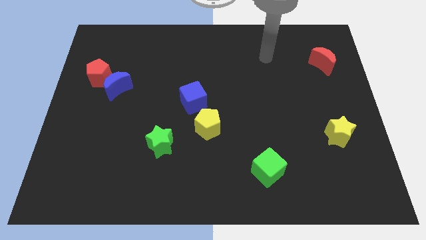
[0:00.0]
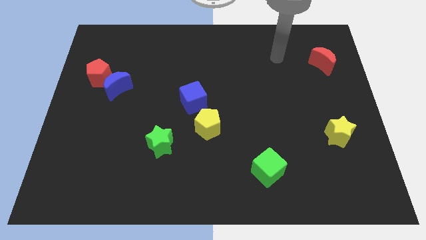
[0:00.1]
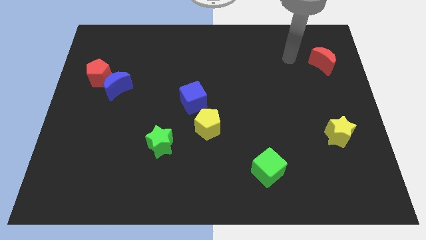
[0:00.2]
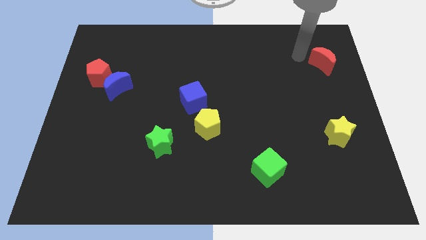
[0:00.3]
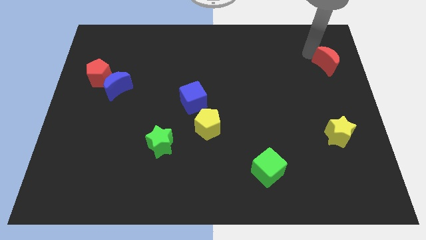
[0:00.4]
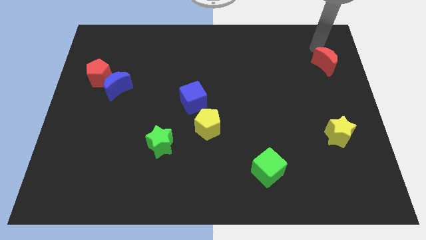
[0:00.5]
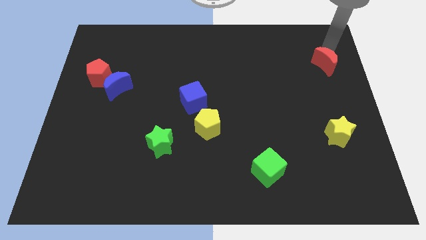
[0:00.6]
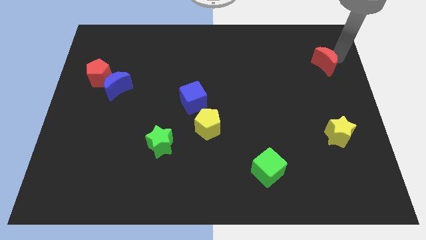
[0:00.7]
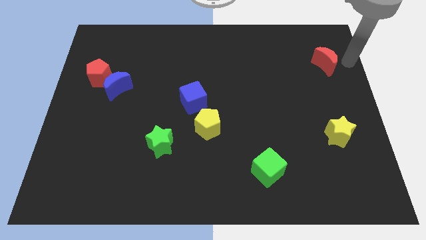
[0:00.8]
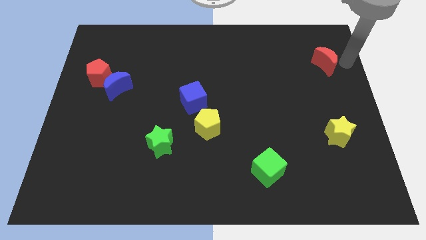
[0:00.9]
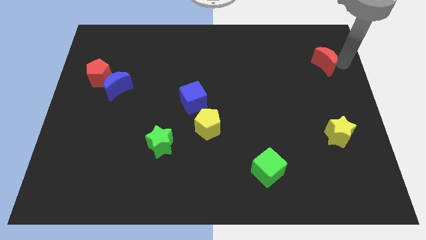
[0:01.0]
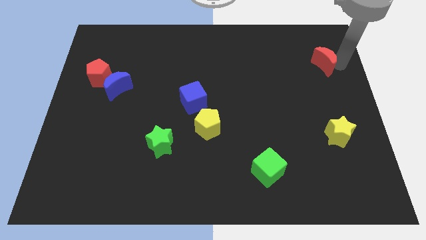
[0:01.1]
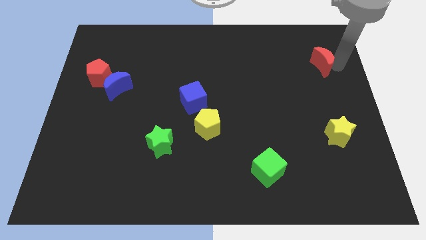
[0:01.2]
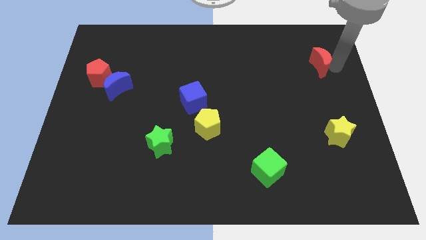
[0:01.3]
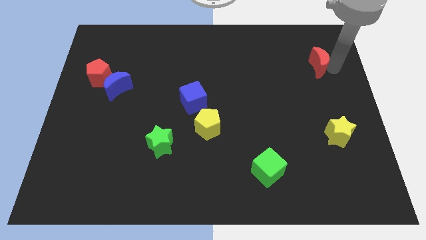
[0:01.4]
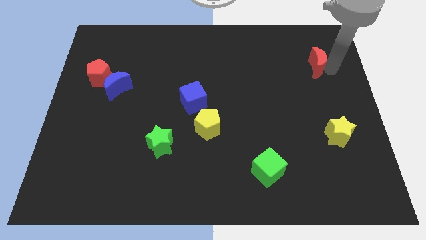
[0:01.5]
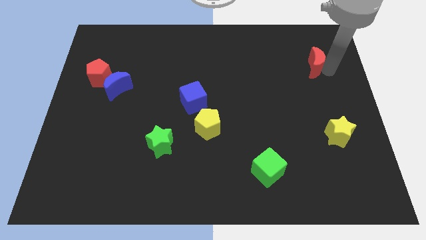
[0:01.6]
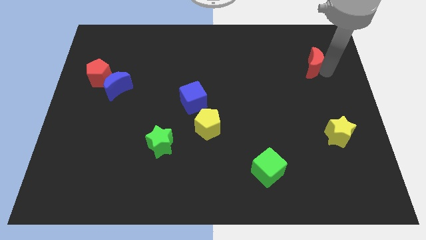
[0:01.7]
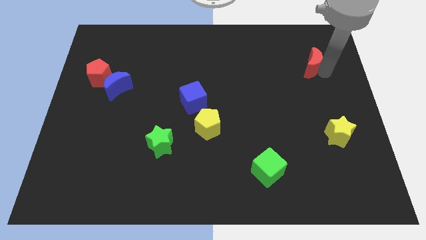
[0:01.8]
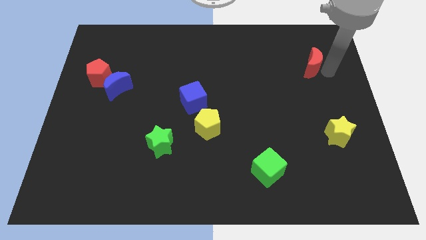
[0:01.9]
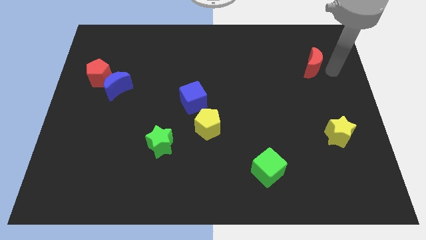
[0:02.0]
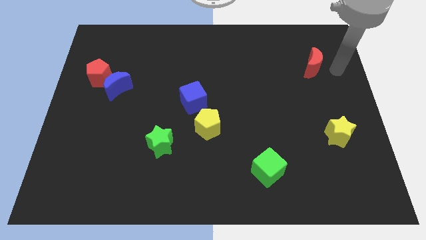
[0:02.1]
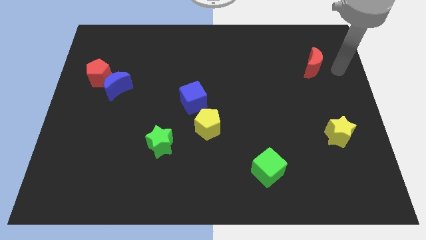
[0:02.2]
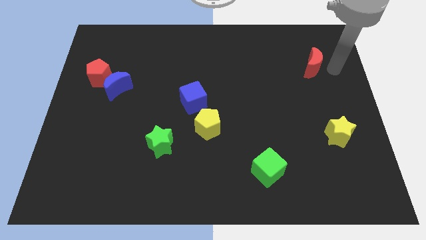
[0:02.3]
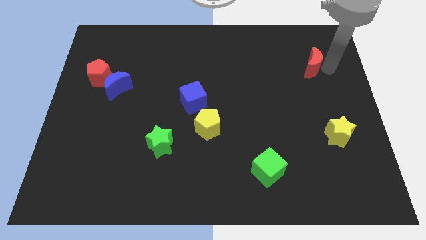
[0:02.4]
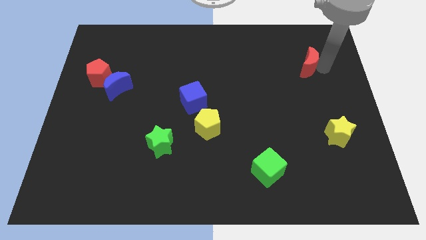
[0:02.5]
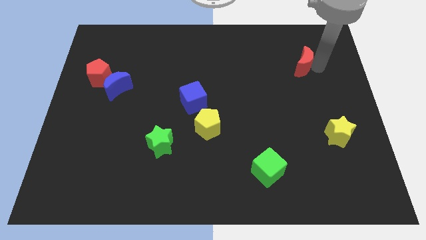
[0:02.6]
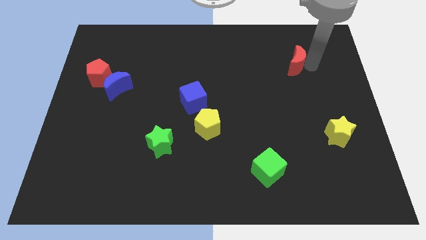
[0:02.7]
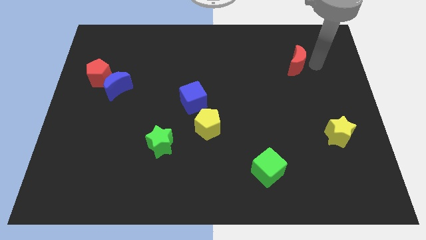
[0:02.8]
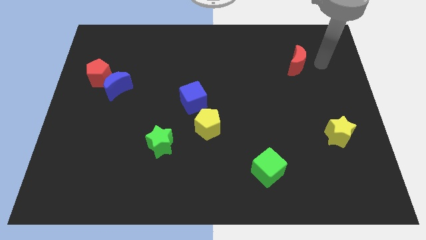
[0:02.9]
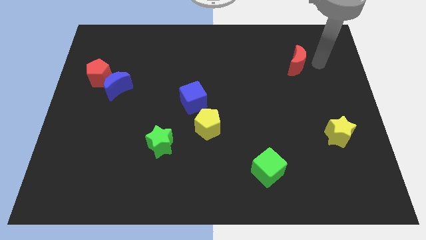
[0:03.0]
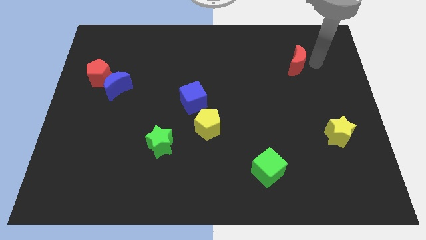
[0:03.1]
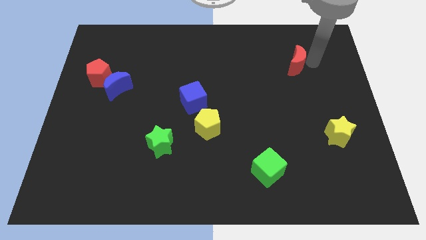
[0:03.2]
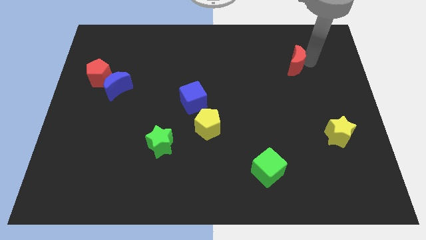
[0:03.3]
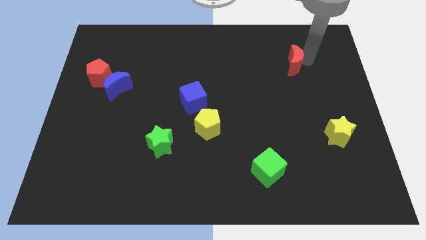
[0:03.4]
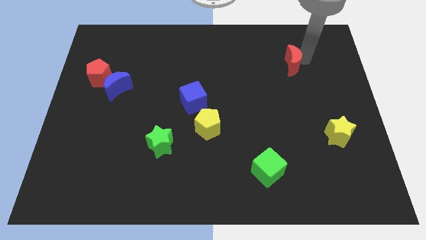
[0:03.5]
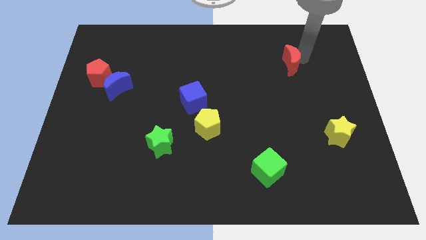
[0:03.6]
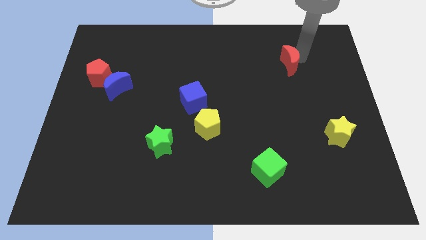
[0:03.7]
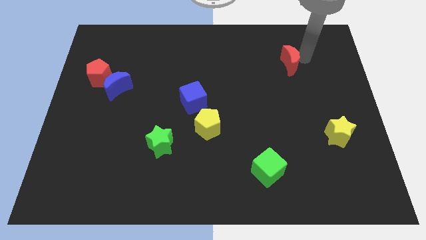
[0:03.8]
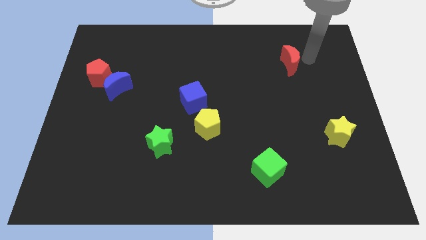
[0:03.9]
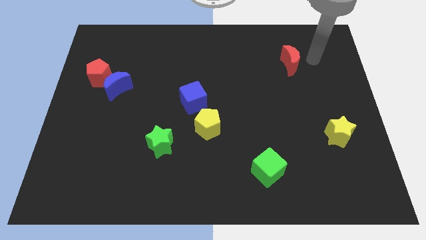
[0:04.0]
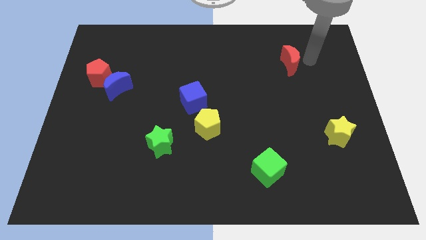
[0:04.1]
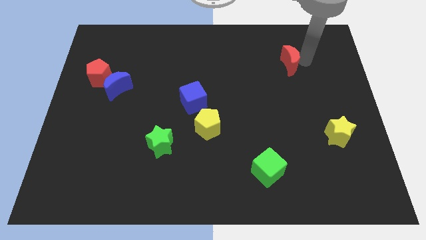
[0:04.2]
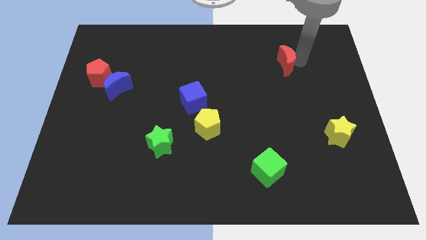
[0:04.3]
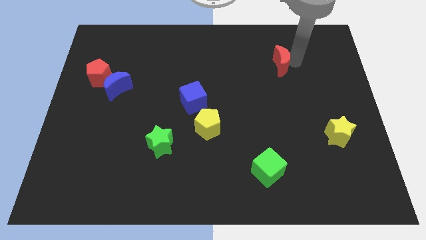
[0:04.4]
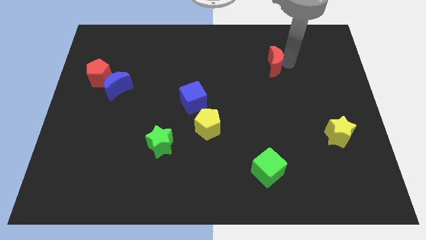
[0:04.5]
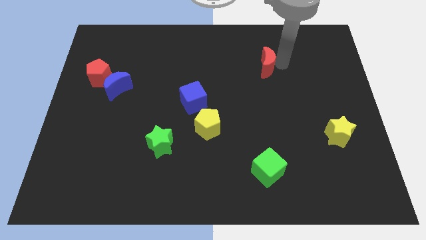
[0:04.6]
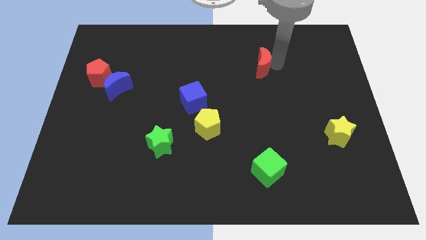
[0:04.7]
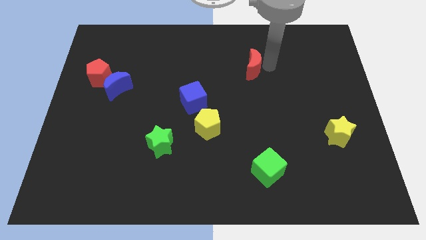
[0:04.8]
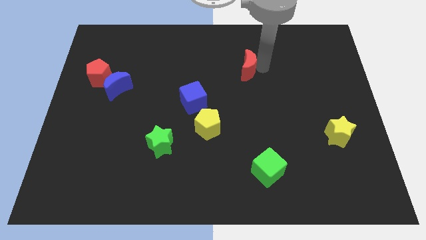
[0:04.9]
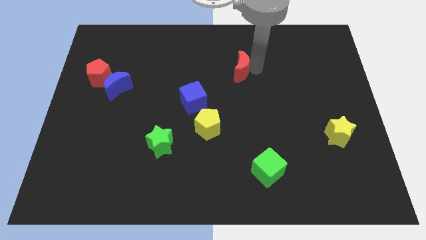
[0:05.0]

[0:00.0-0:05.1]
push the red moon to the left

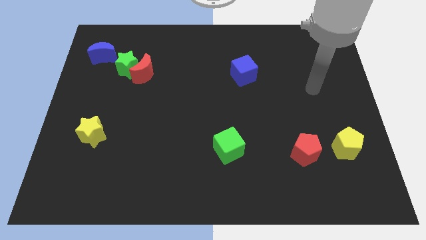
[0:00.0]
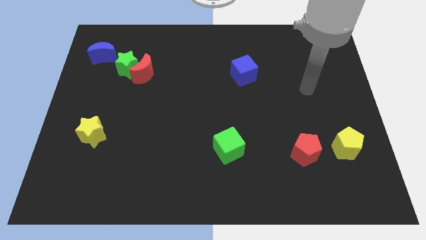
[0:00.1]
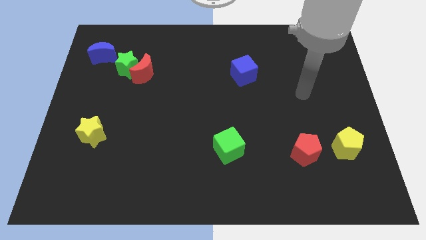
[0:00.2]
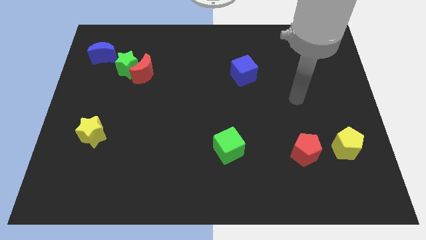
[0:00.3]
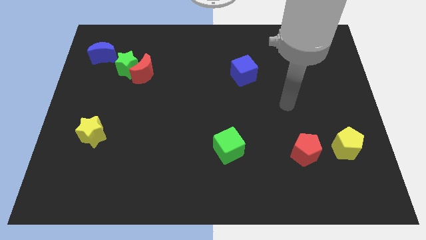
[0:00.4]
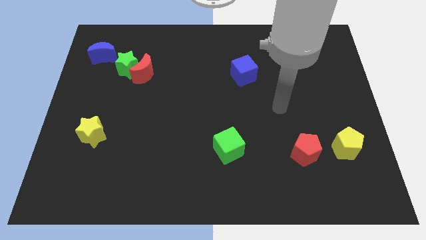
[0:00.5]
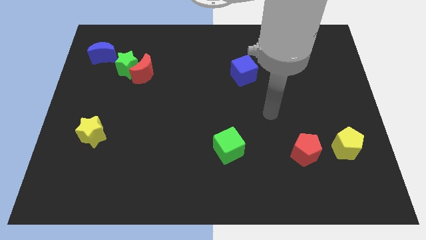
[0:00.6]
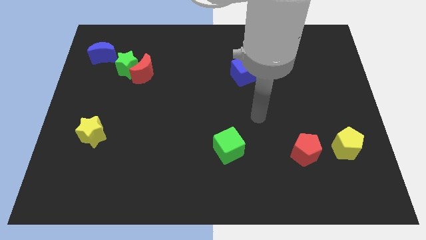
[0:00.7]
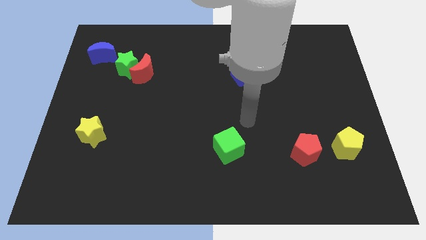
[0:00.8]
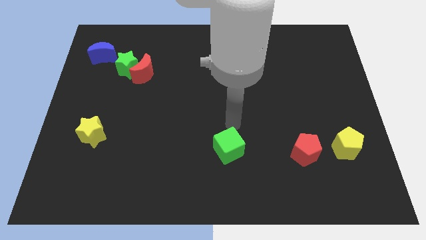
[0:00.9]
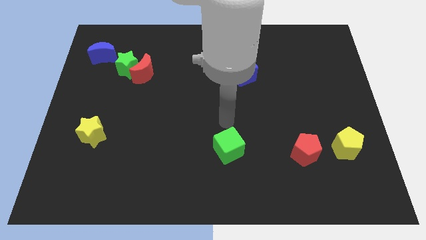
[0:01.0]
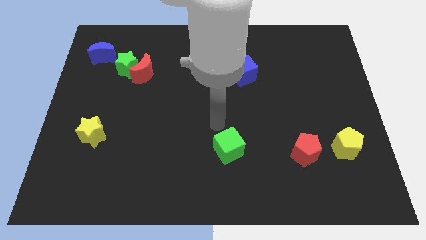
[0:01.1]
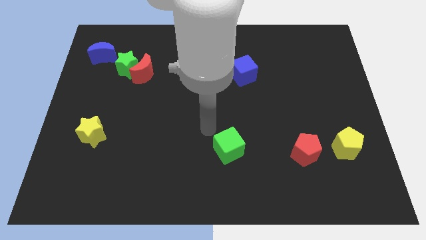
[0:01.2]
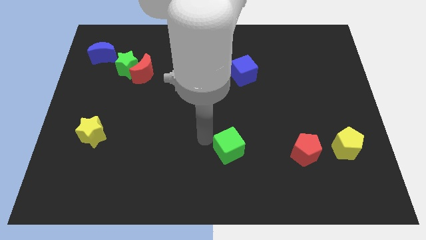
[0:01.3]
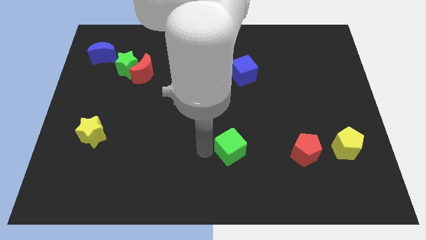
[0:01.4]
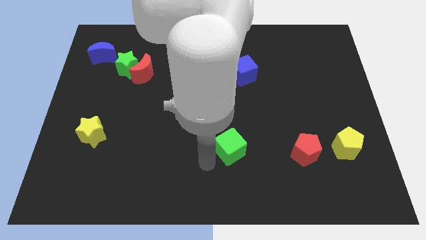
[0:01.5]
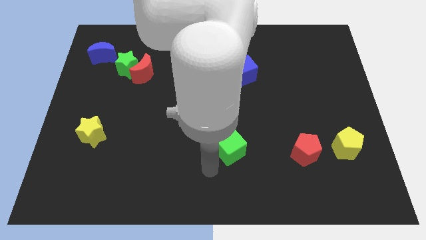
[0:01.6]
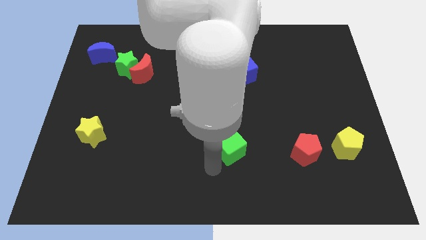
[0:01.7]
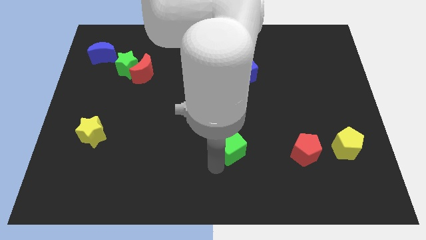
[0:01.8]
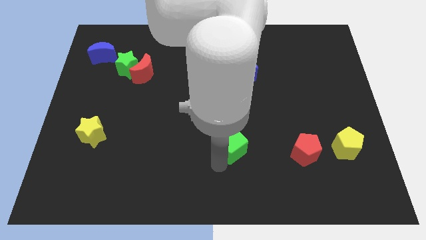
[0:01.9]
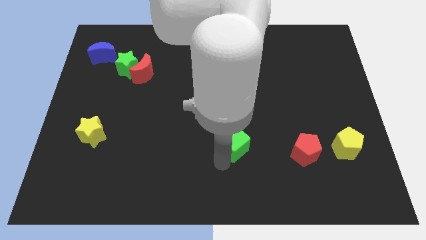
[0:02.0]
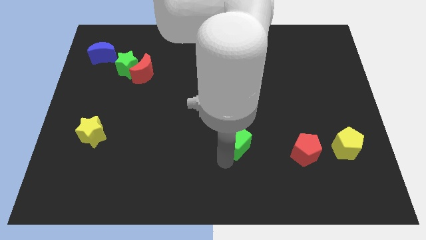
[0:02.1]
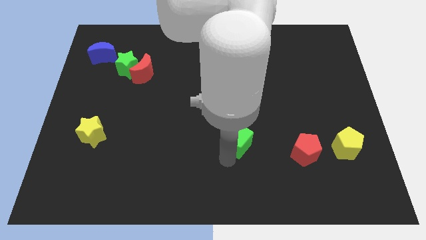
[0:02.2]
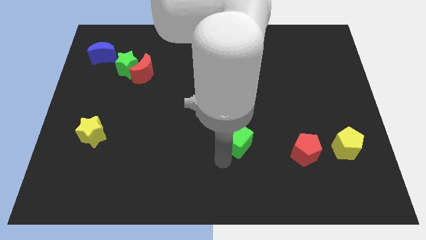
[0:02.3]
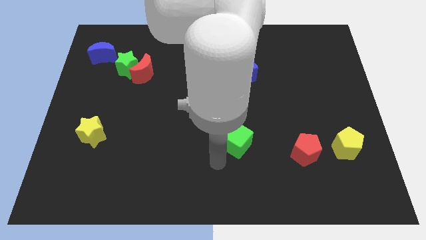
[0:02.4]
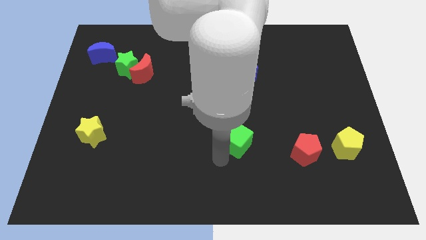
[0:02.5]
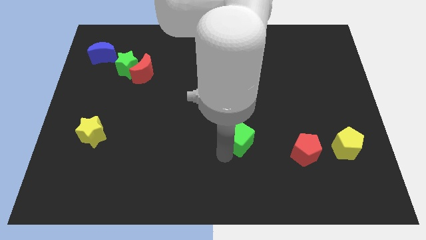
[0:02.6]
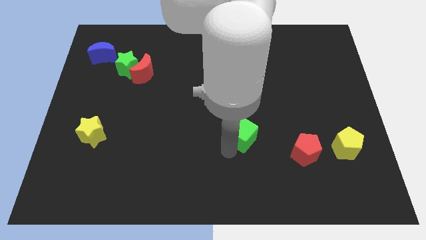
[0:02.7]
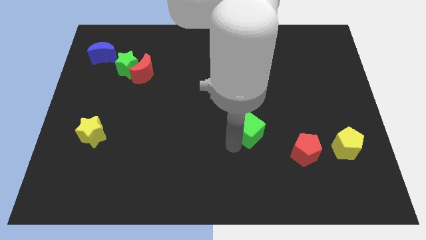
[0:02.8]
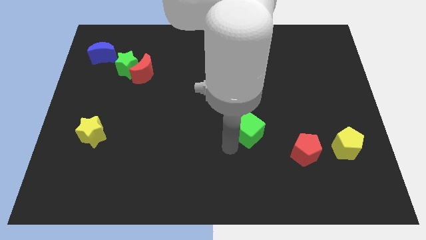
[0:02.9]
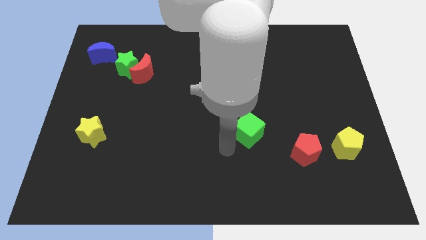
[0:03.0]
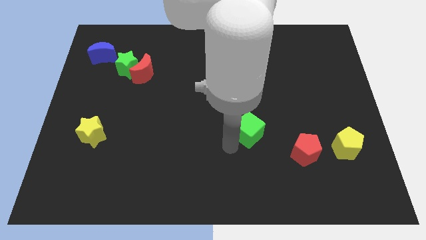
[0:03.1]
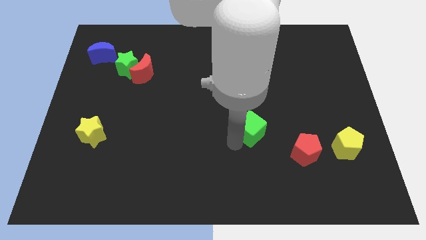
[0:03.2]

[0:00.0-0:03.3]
slightly push the green cube upwards and then right
